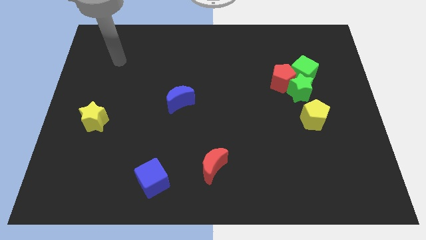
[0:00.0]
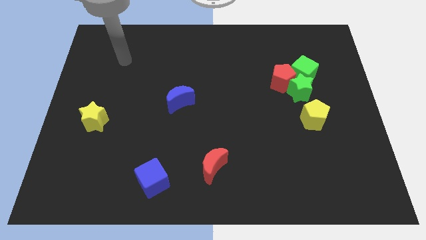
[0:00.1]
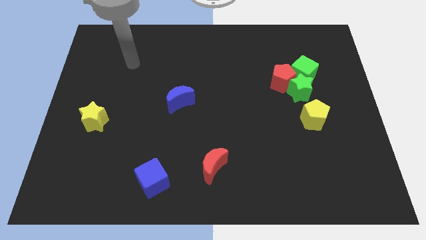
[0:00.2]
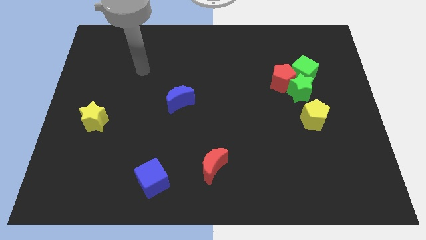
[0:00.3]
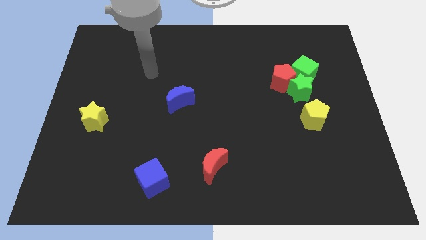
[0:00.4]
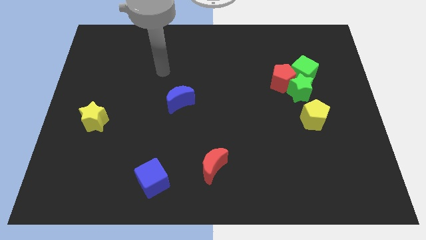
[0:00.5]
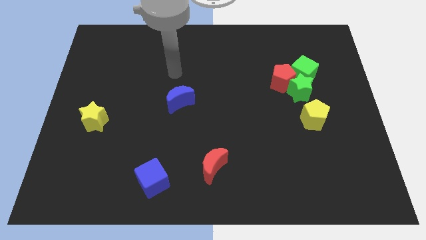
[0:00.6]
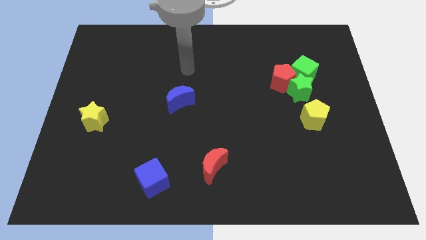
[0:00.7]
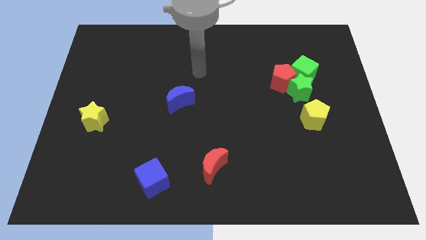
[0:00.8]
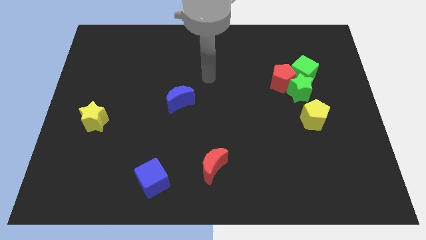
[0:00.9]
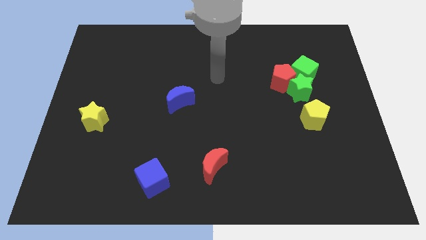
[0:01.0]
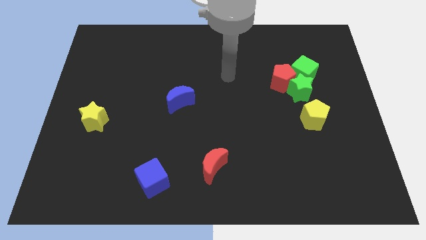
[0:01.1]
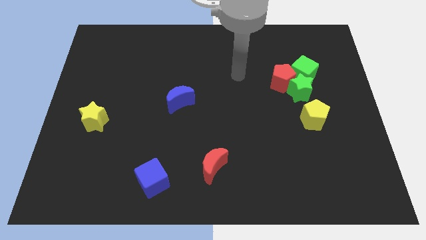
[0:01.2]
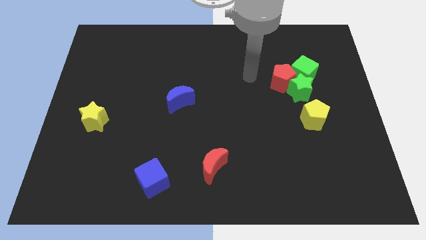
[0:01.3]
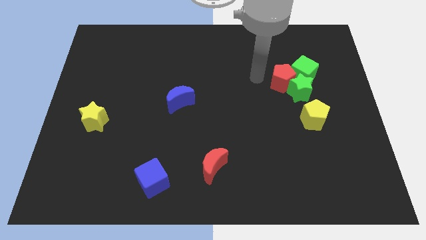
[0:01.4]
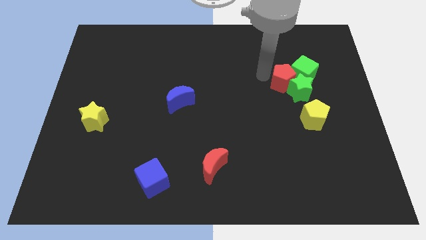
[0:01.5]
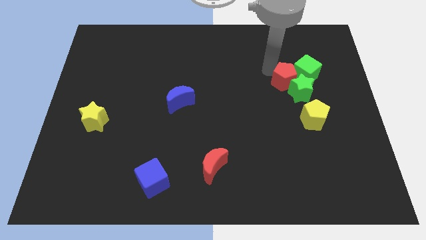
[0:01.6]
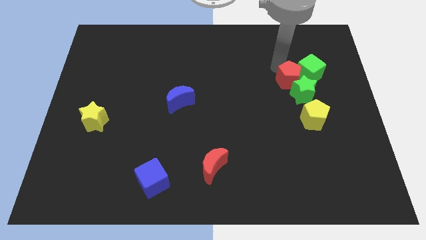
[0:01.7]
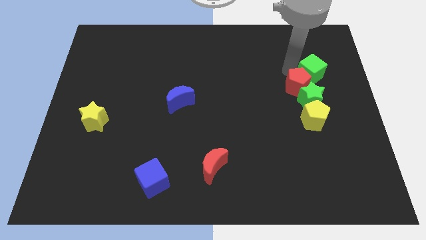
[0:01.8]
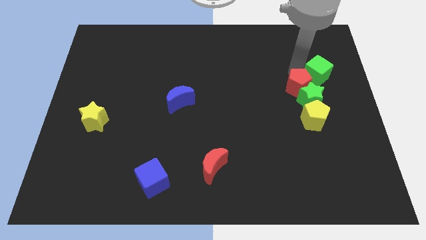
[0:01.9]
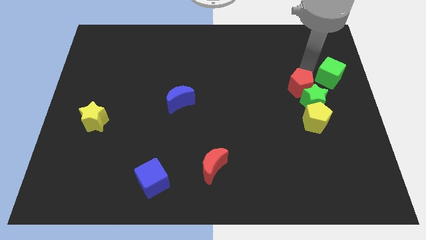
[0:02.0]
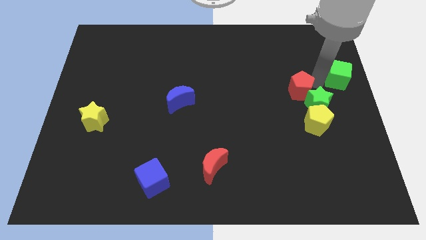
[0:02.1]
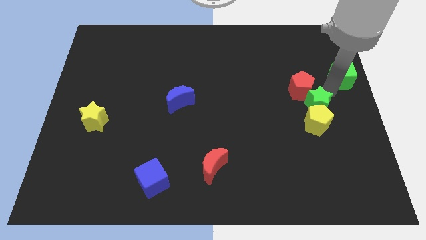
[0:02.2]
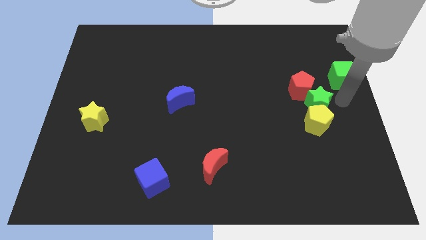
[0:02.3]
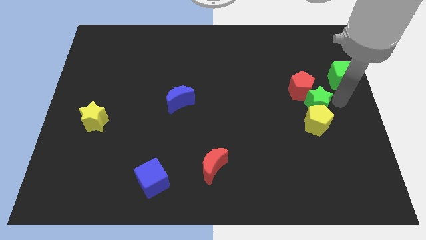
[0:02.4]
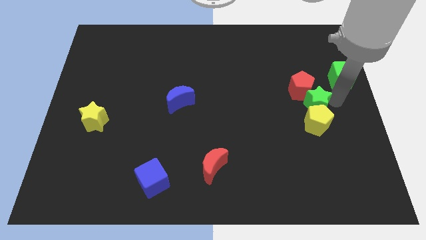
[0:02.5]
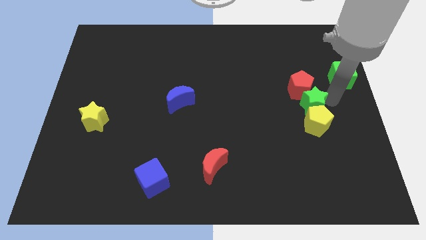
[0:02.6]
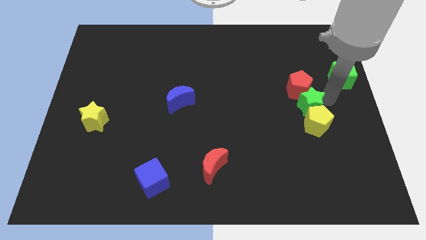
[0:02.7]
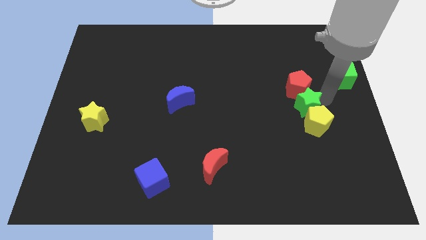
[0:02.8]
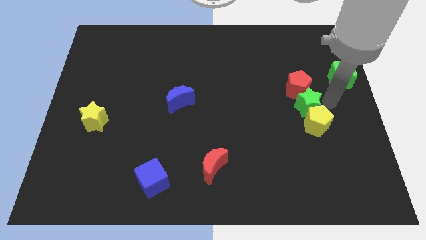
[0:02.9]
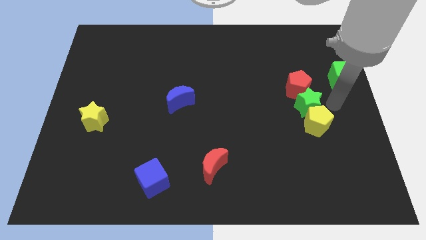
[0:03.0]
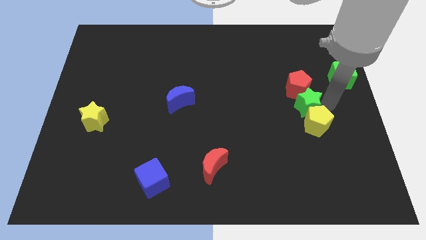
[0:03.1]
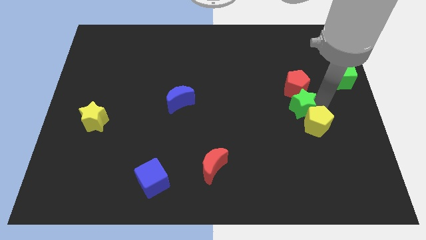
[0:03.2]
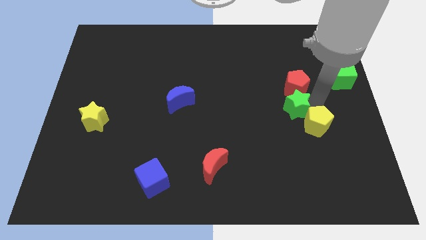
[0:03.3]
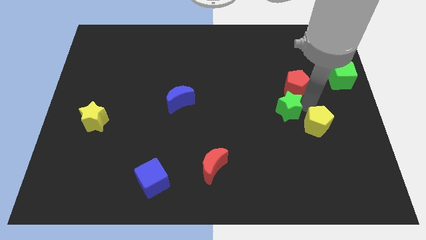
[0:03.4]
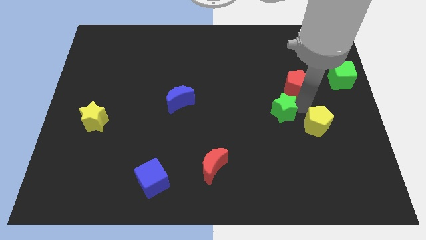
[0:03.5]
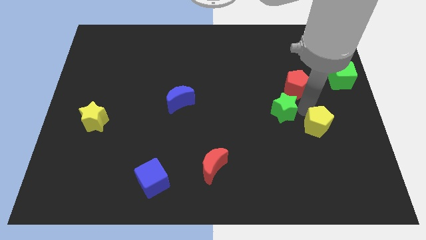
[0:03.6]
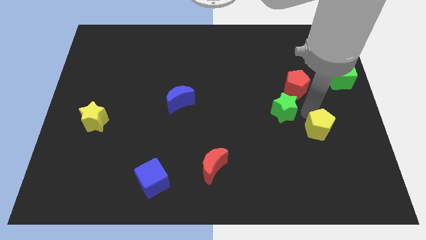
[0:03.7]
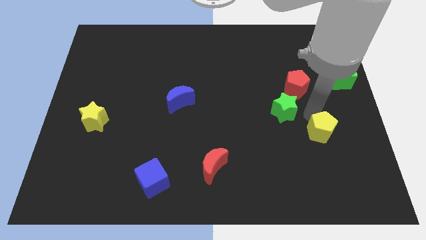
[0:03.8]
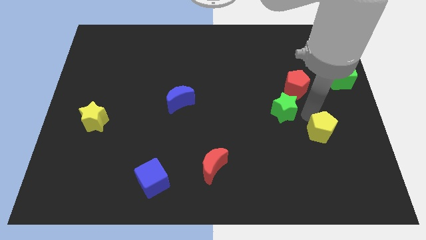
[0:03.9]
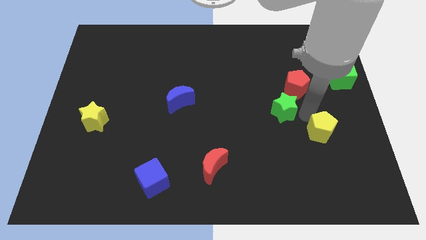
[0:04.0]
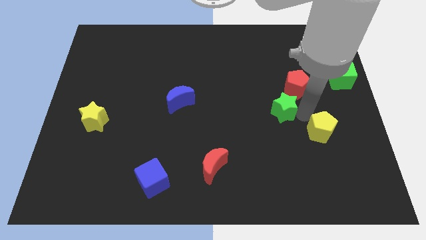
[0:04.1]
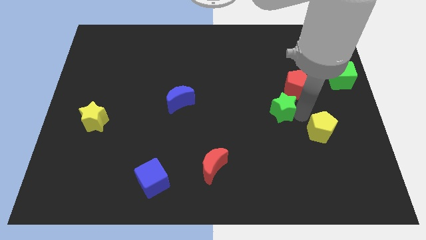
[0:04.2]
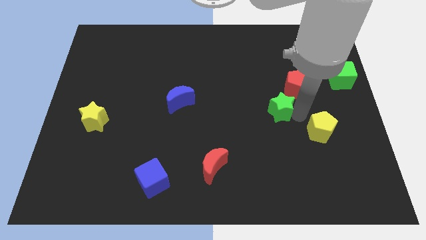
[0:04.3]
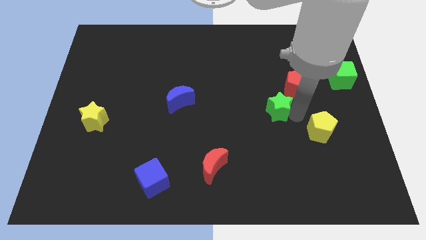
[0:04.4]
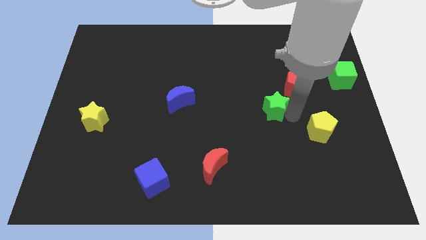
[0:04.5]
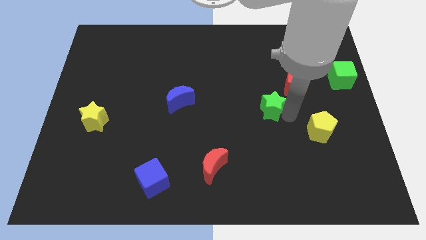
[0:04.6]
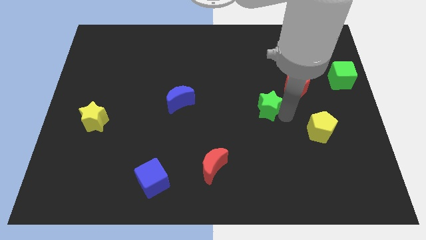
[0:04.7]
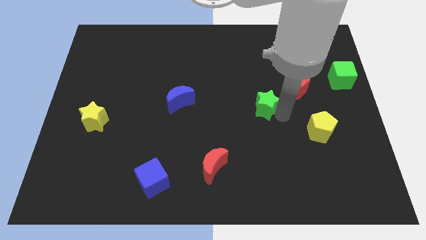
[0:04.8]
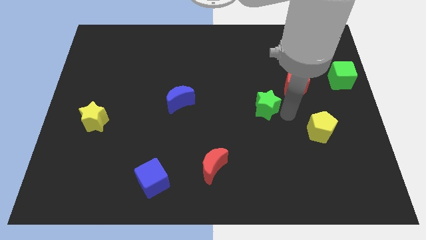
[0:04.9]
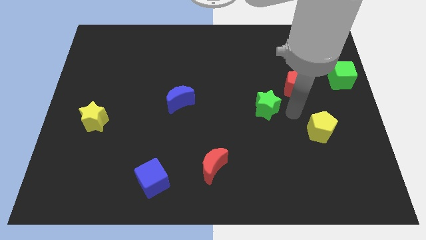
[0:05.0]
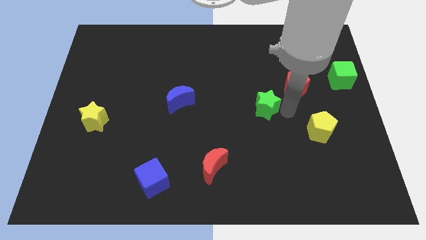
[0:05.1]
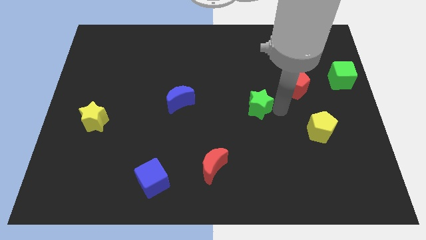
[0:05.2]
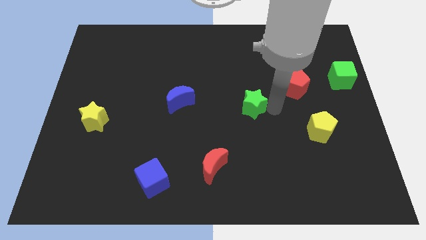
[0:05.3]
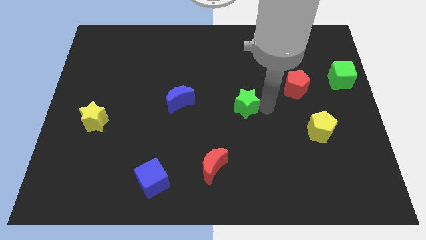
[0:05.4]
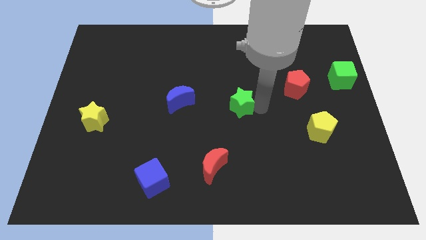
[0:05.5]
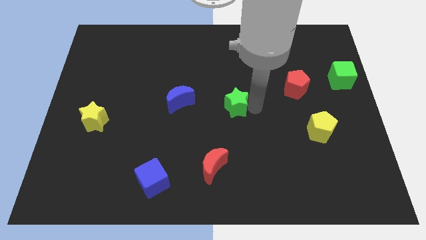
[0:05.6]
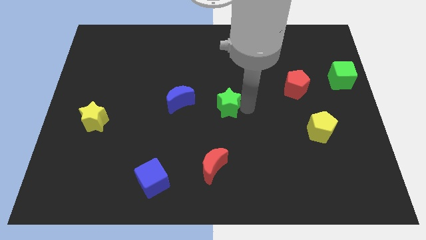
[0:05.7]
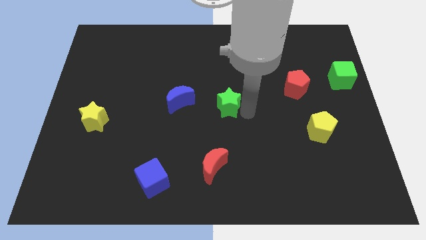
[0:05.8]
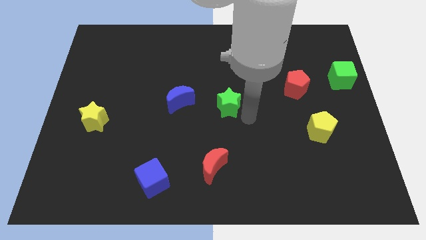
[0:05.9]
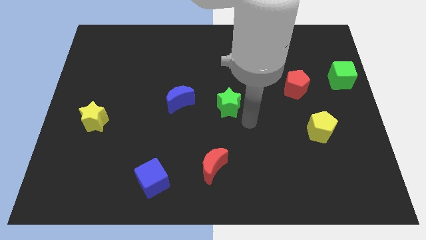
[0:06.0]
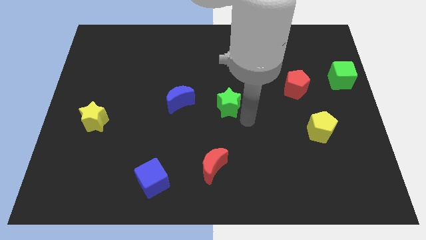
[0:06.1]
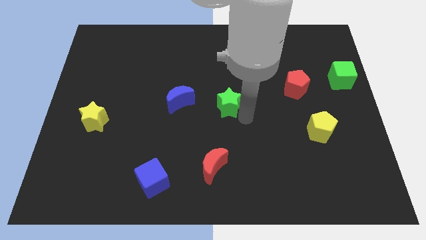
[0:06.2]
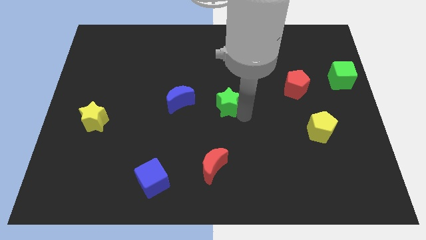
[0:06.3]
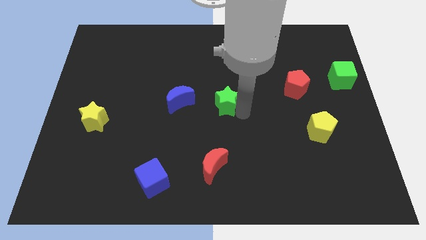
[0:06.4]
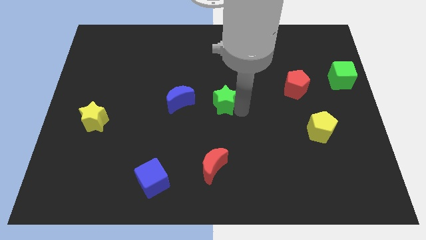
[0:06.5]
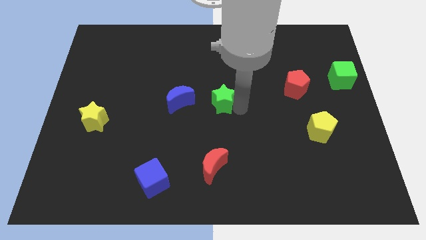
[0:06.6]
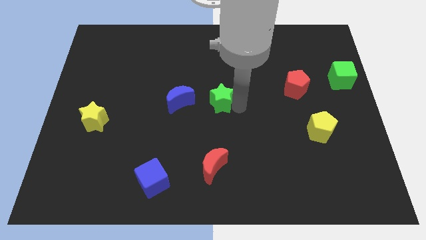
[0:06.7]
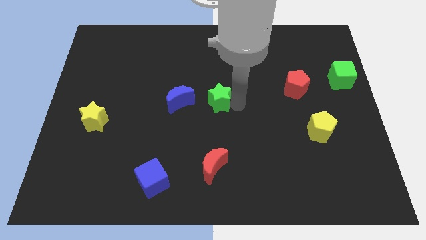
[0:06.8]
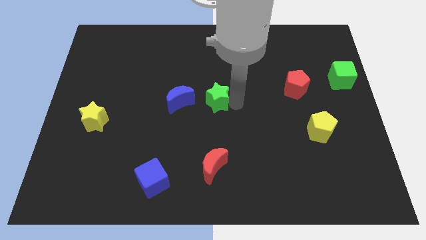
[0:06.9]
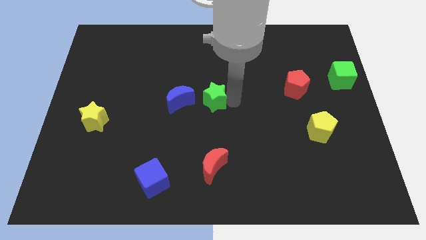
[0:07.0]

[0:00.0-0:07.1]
slide the green star to the left

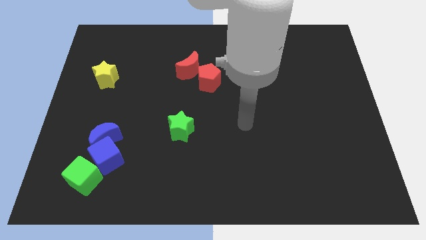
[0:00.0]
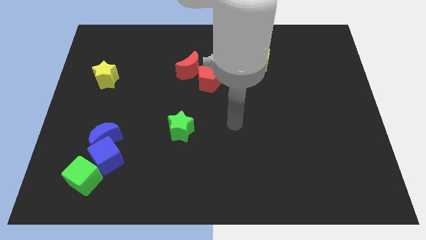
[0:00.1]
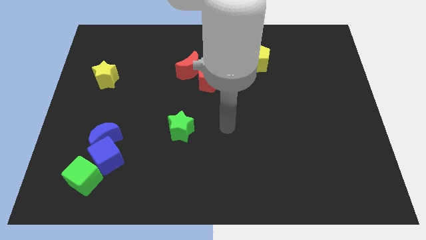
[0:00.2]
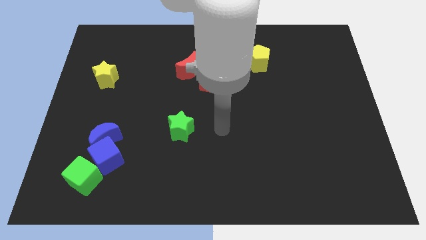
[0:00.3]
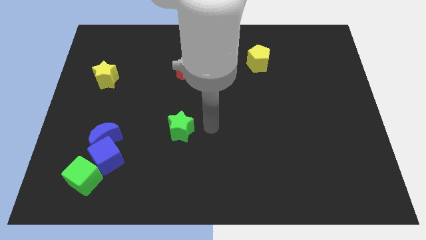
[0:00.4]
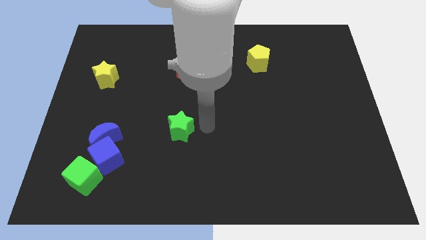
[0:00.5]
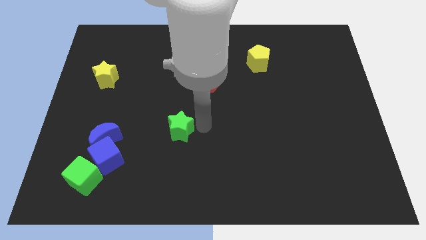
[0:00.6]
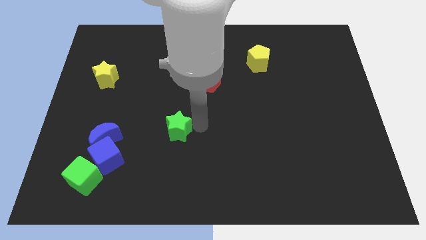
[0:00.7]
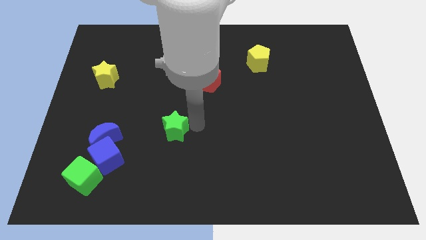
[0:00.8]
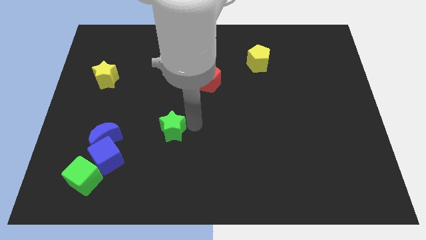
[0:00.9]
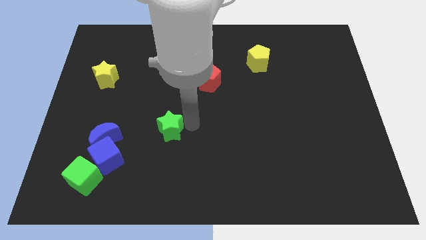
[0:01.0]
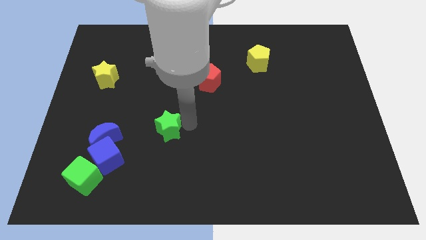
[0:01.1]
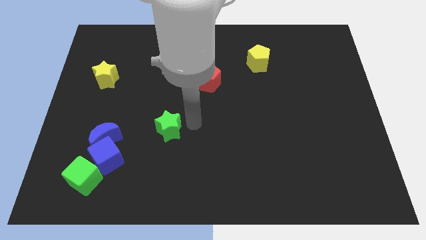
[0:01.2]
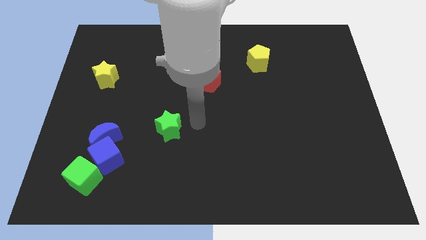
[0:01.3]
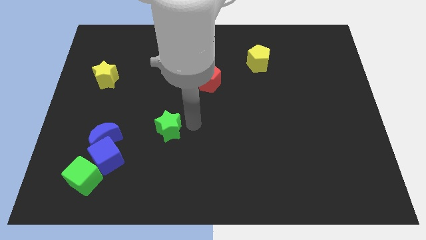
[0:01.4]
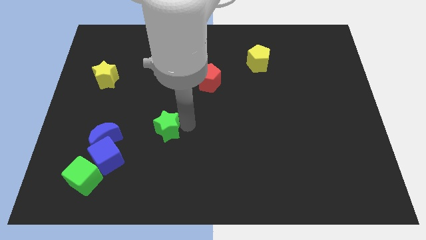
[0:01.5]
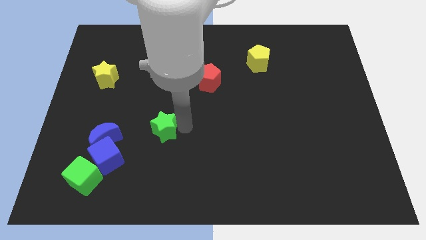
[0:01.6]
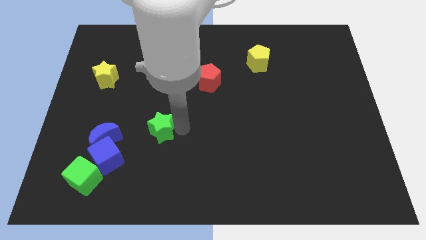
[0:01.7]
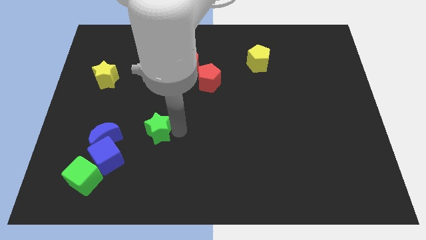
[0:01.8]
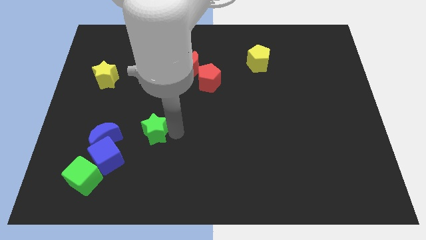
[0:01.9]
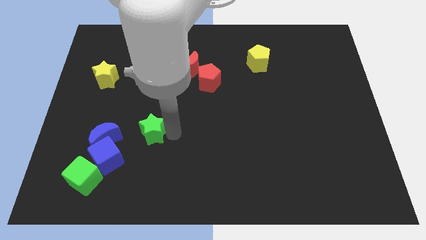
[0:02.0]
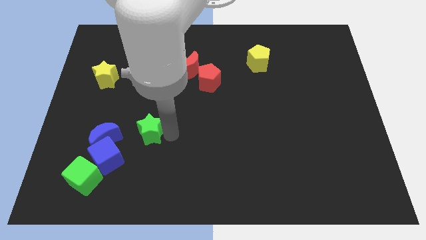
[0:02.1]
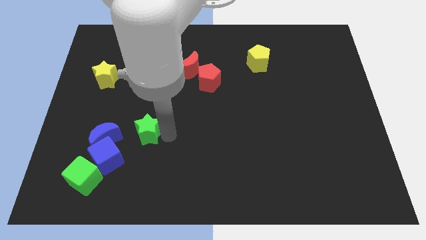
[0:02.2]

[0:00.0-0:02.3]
slide the green star left a little
